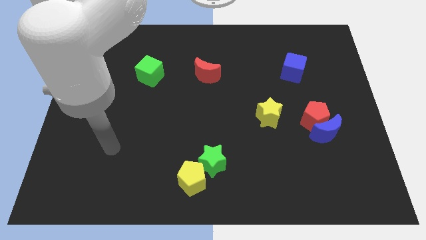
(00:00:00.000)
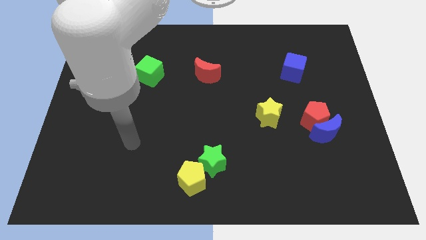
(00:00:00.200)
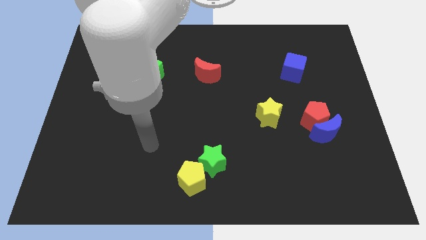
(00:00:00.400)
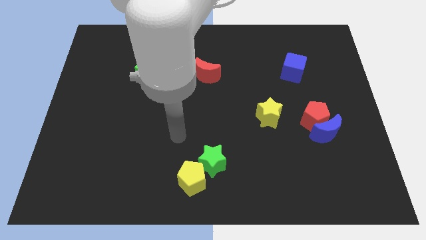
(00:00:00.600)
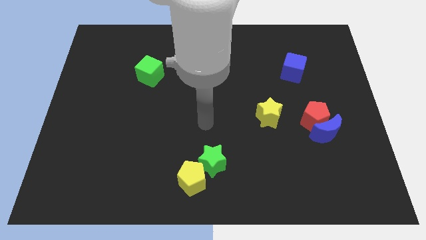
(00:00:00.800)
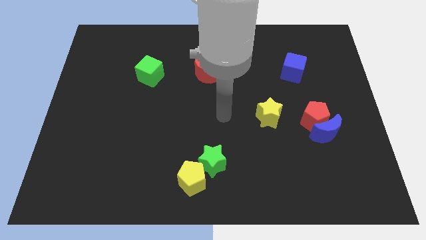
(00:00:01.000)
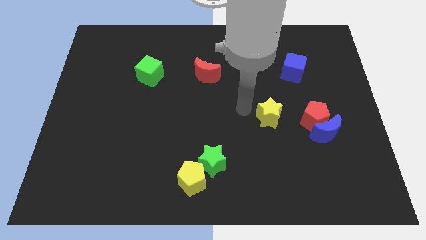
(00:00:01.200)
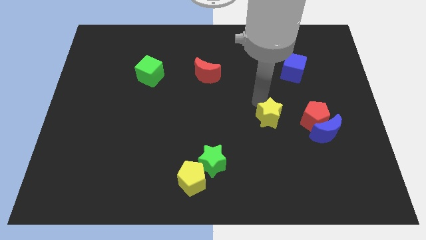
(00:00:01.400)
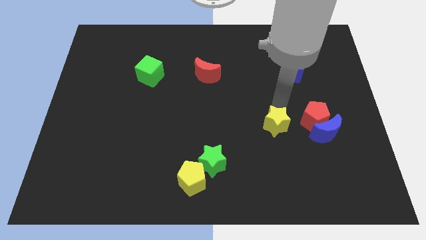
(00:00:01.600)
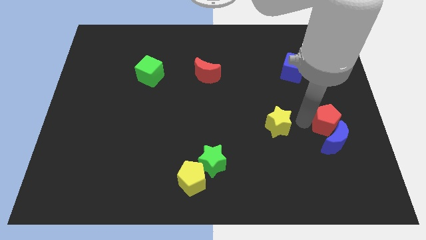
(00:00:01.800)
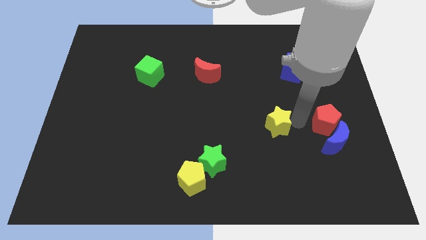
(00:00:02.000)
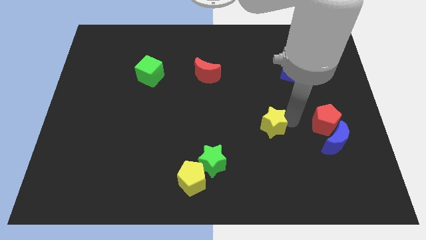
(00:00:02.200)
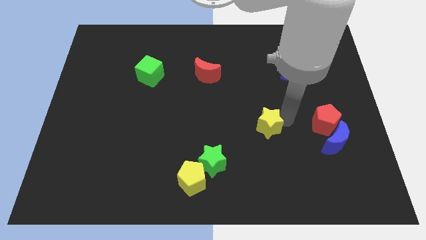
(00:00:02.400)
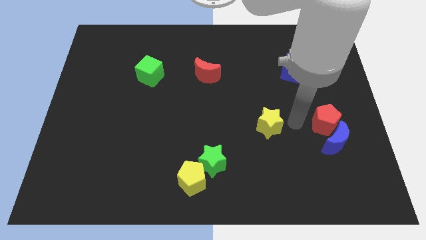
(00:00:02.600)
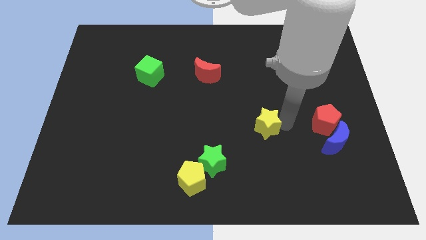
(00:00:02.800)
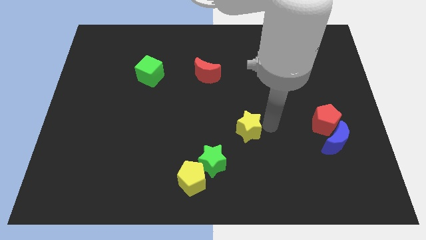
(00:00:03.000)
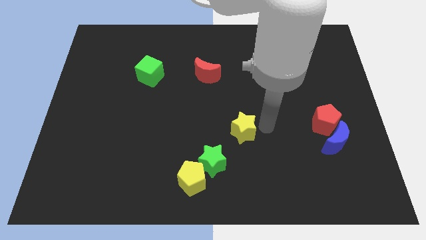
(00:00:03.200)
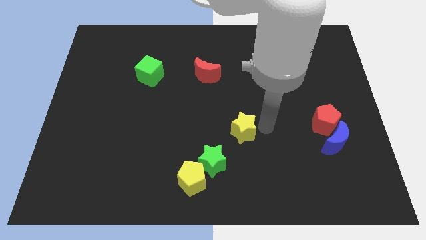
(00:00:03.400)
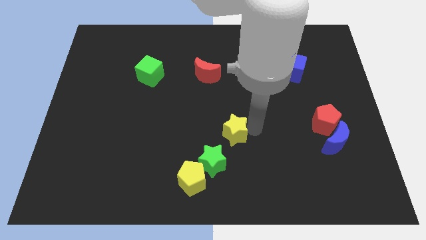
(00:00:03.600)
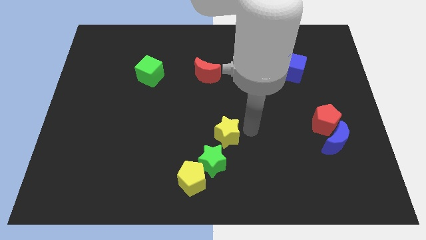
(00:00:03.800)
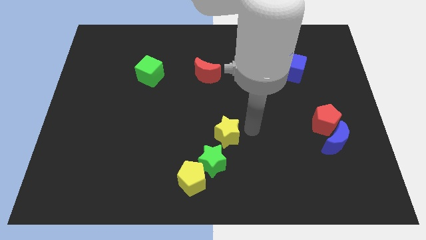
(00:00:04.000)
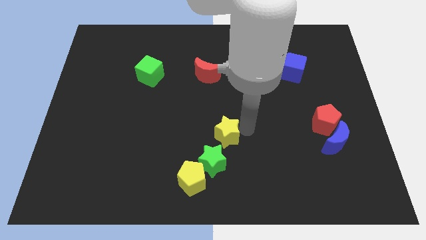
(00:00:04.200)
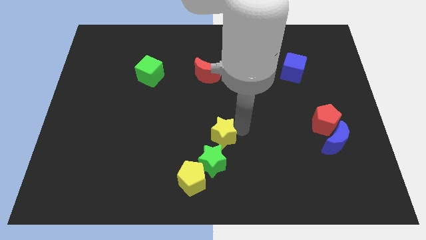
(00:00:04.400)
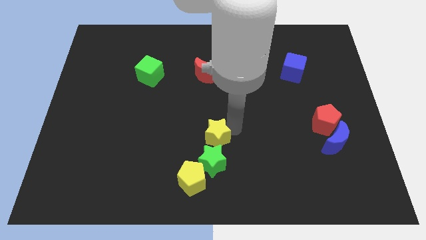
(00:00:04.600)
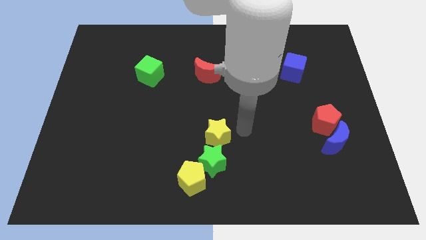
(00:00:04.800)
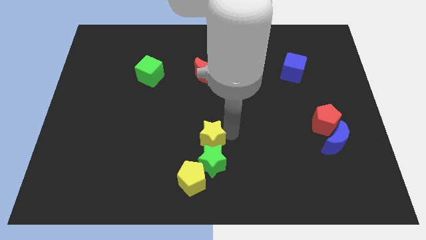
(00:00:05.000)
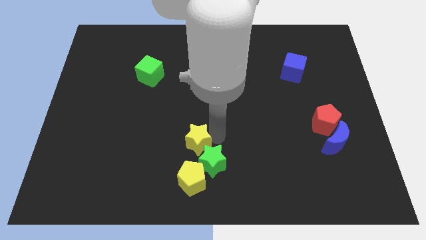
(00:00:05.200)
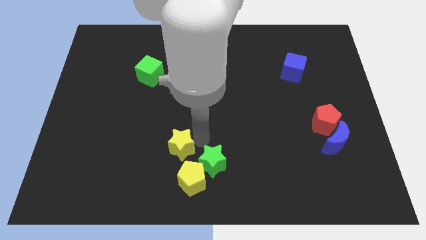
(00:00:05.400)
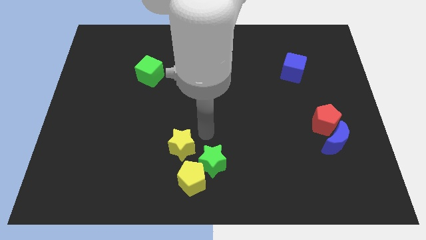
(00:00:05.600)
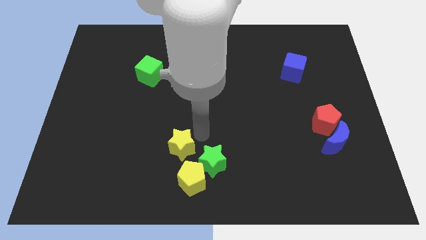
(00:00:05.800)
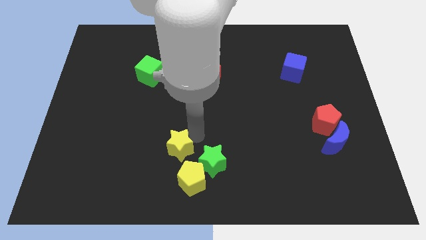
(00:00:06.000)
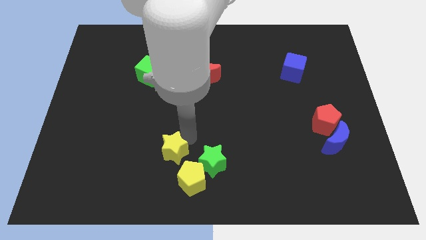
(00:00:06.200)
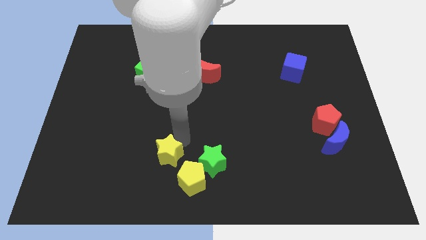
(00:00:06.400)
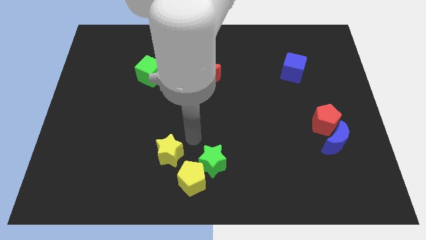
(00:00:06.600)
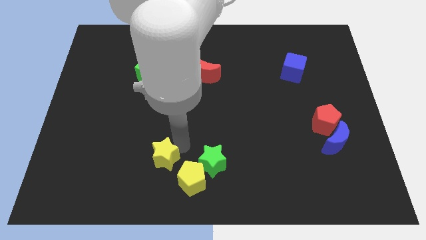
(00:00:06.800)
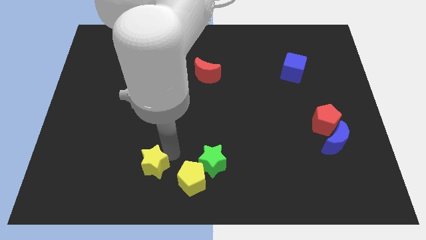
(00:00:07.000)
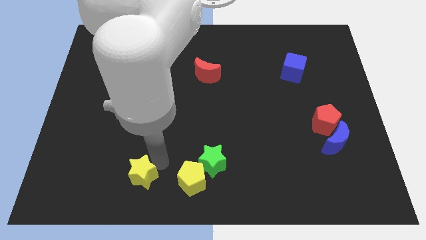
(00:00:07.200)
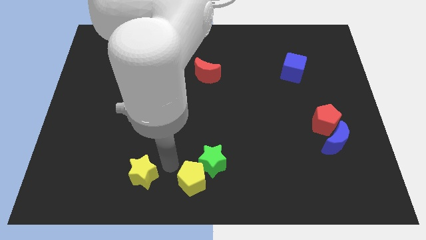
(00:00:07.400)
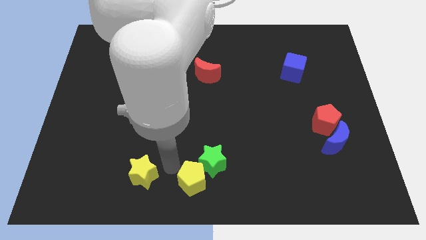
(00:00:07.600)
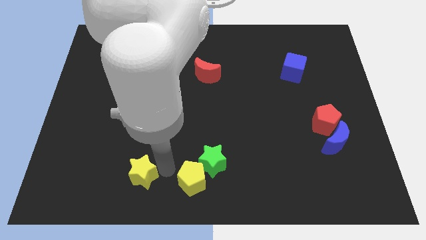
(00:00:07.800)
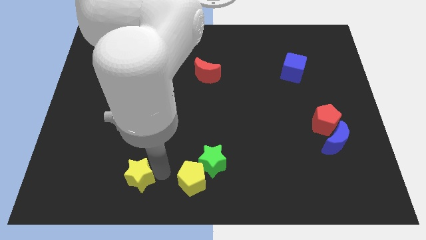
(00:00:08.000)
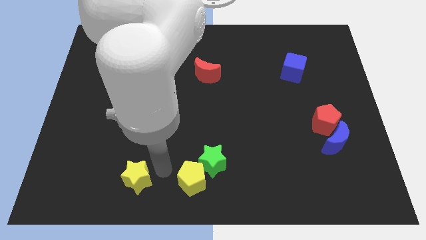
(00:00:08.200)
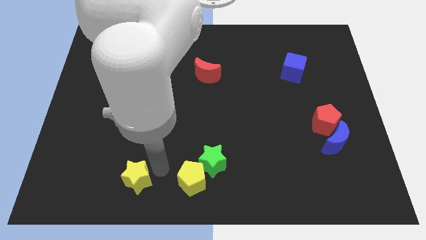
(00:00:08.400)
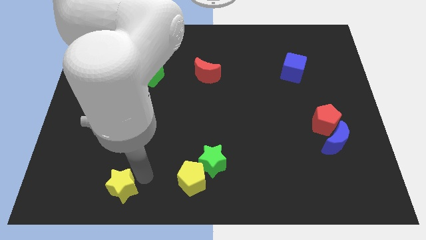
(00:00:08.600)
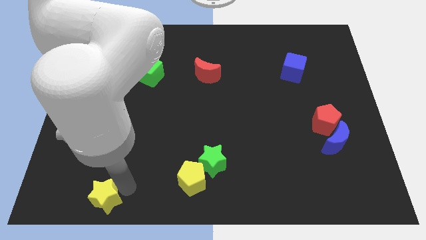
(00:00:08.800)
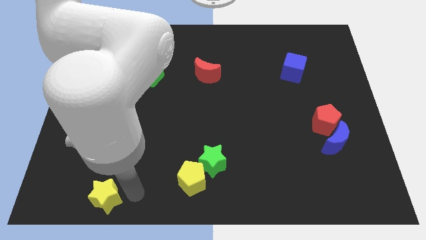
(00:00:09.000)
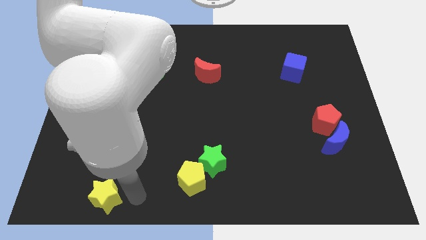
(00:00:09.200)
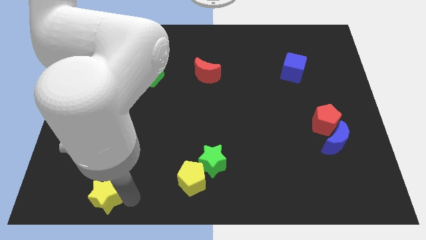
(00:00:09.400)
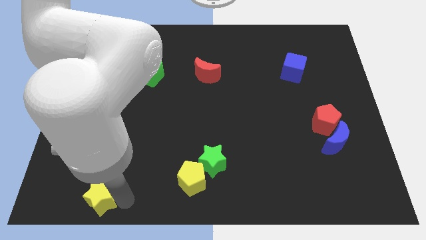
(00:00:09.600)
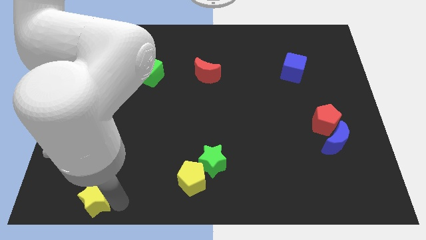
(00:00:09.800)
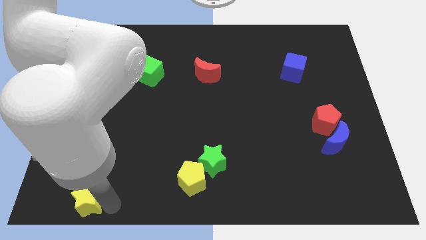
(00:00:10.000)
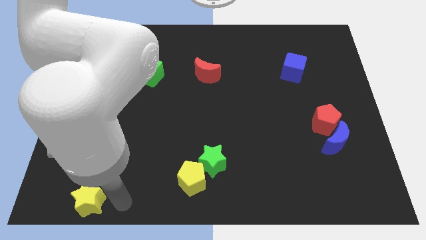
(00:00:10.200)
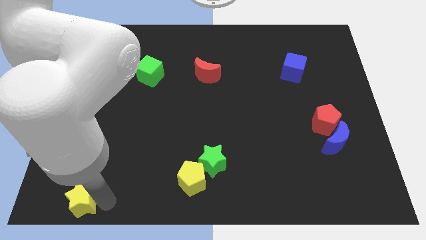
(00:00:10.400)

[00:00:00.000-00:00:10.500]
put the yellow star to the lower left corner

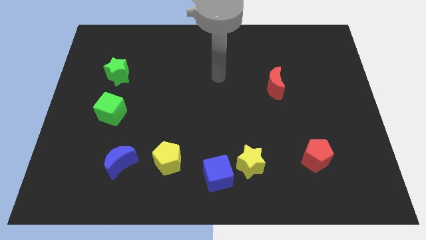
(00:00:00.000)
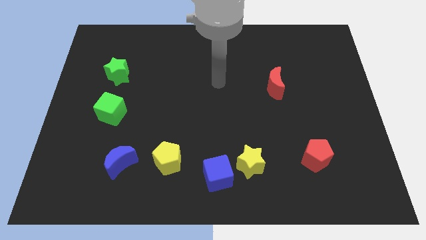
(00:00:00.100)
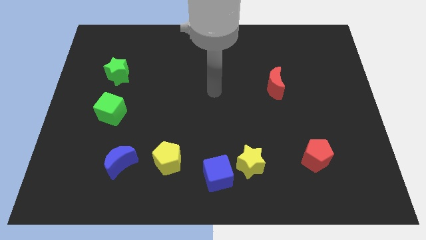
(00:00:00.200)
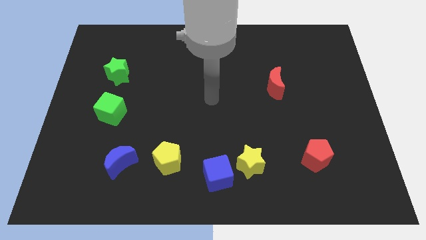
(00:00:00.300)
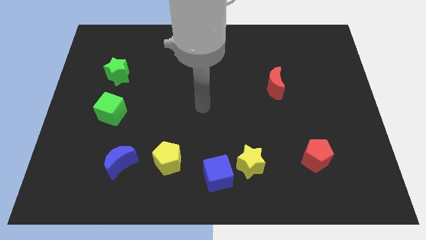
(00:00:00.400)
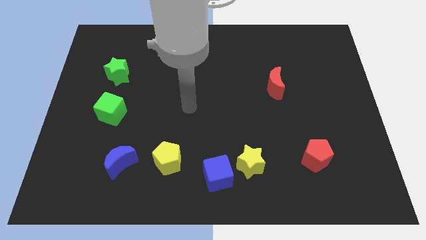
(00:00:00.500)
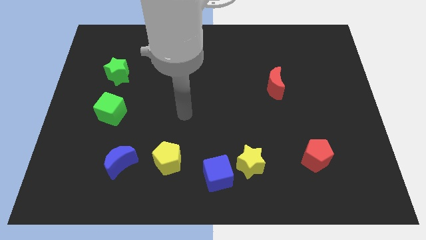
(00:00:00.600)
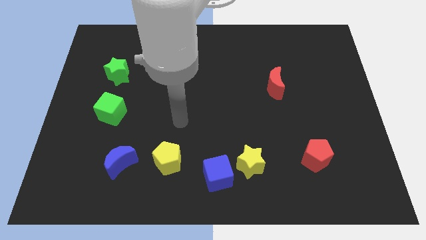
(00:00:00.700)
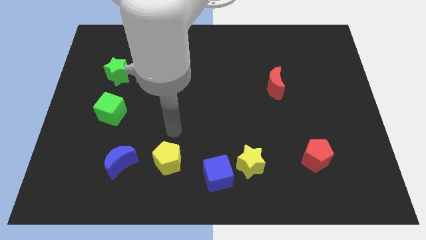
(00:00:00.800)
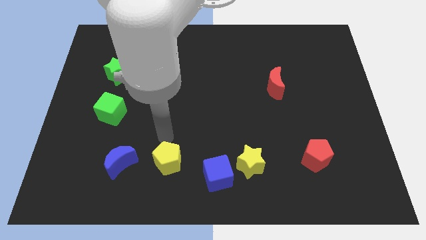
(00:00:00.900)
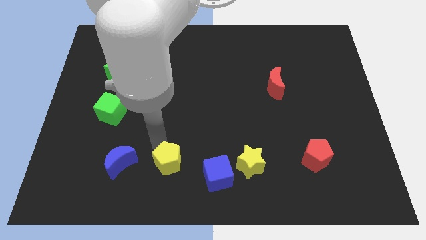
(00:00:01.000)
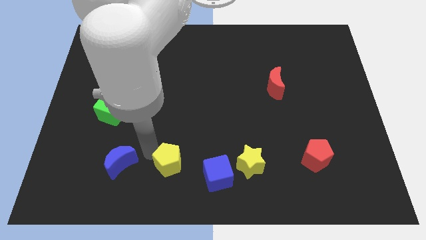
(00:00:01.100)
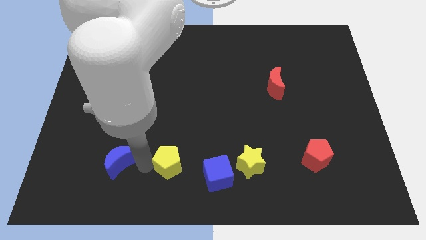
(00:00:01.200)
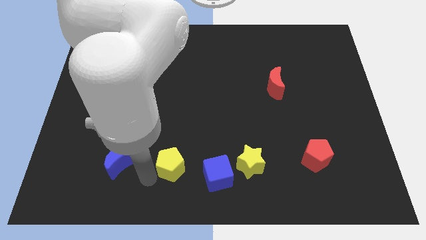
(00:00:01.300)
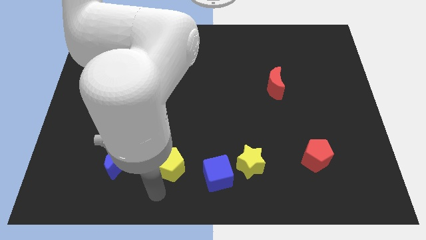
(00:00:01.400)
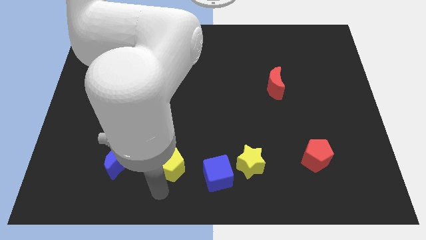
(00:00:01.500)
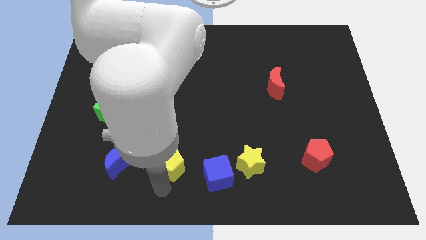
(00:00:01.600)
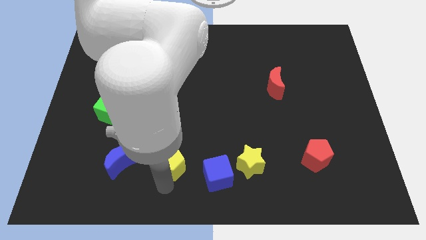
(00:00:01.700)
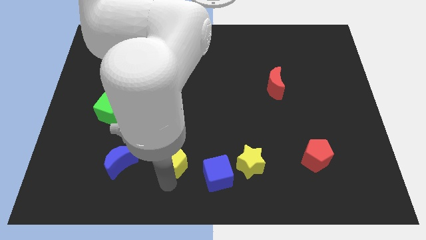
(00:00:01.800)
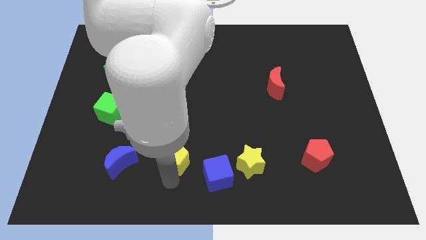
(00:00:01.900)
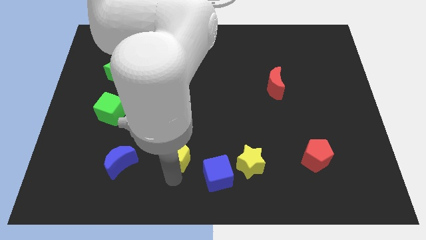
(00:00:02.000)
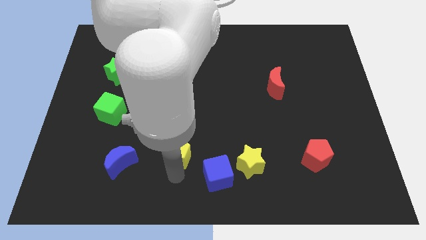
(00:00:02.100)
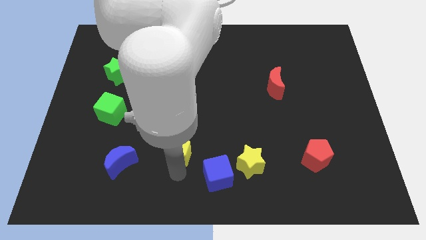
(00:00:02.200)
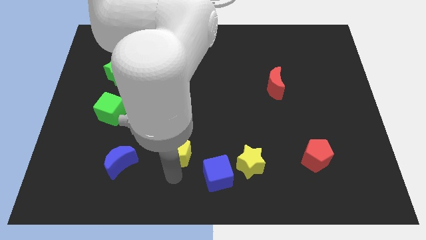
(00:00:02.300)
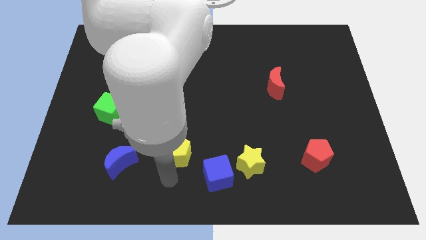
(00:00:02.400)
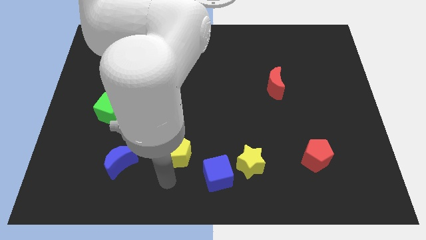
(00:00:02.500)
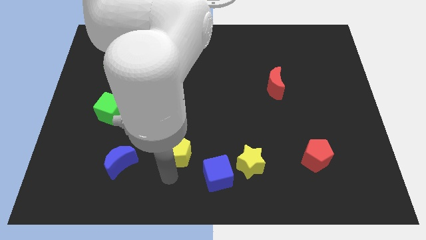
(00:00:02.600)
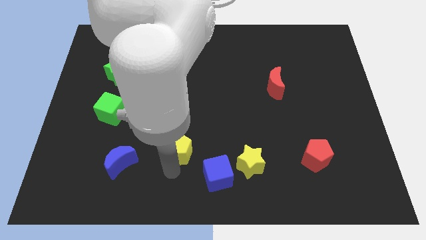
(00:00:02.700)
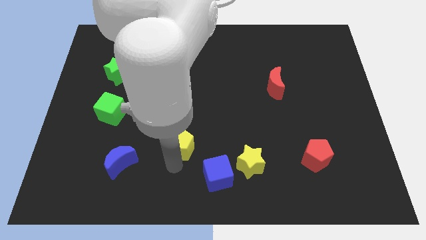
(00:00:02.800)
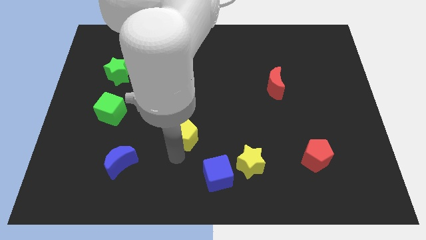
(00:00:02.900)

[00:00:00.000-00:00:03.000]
move the yellow pentagon to the middle of the board
